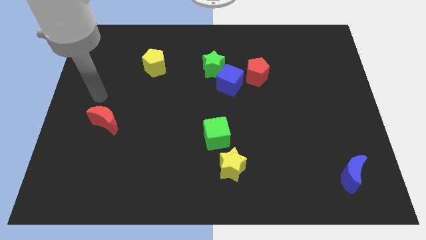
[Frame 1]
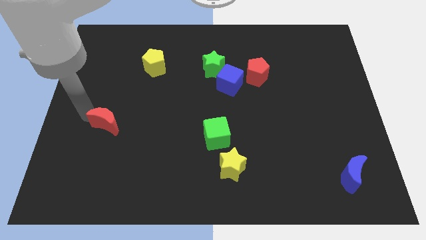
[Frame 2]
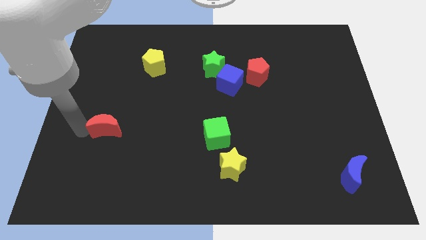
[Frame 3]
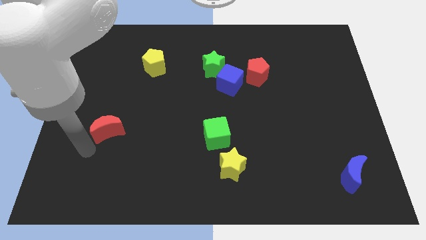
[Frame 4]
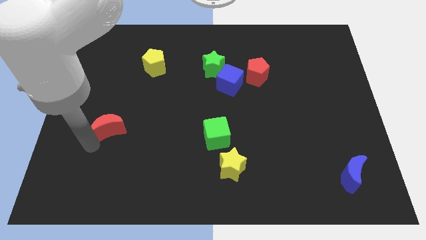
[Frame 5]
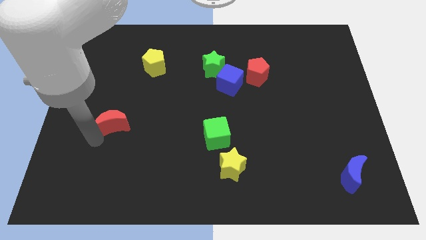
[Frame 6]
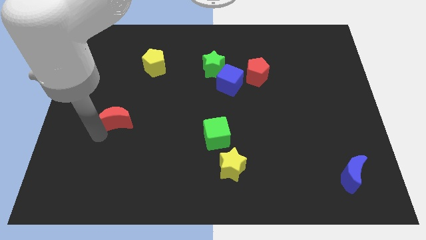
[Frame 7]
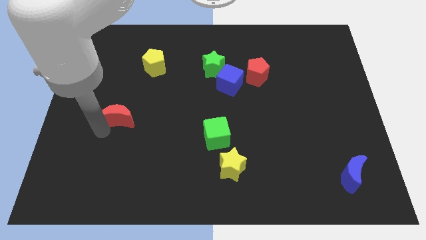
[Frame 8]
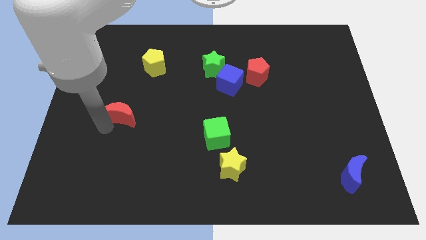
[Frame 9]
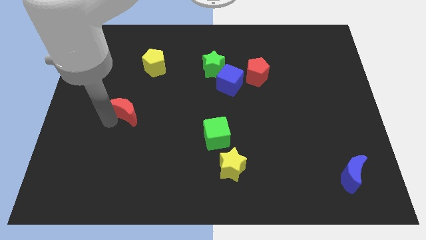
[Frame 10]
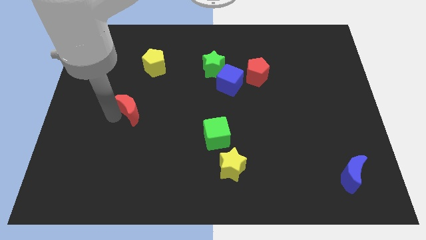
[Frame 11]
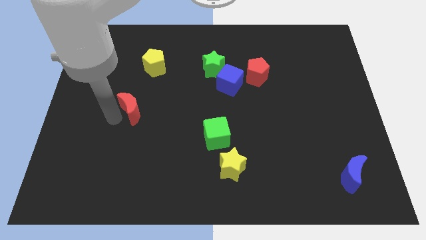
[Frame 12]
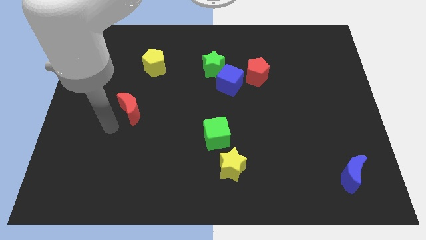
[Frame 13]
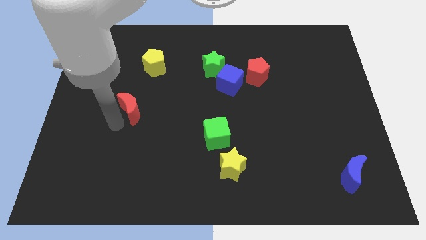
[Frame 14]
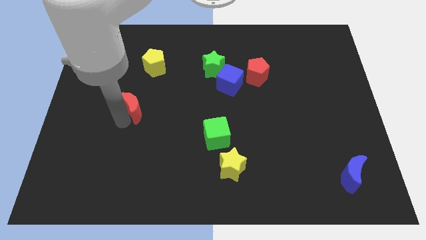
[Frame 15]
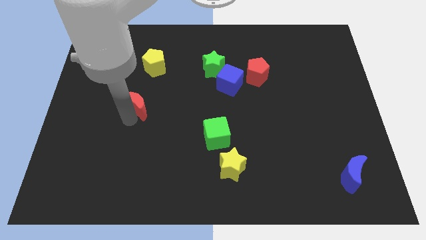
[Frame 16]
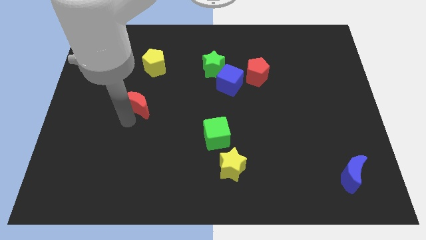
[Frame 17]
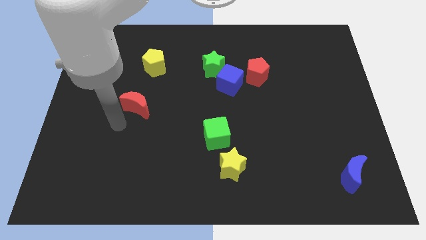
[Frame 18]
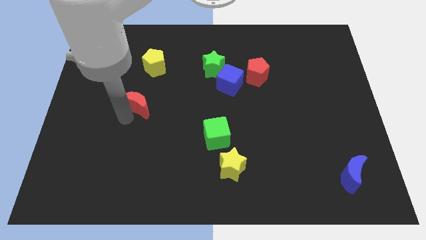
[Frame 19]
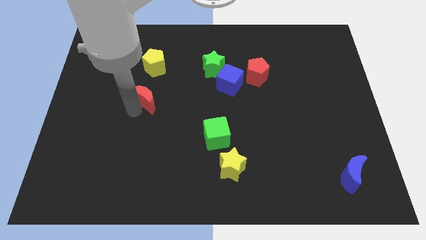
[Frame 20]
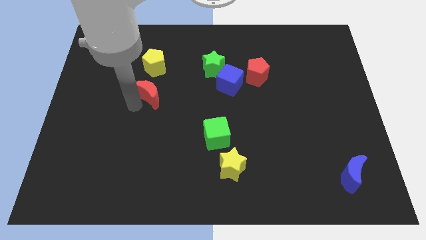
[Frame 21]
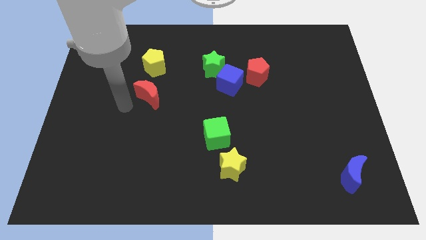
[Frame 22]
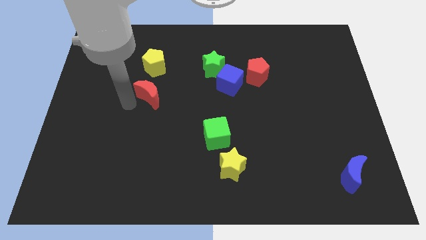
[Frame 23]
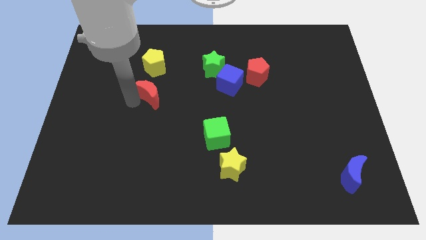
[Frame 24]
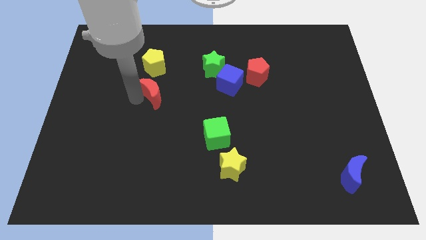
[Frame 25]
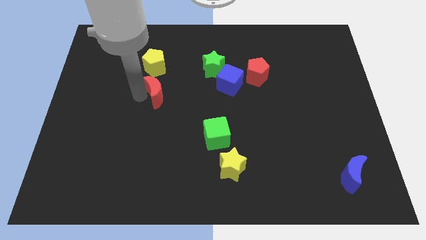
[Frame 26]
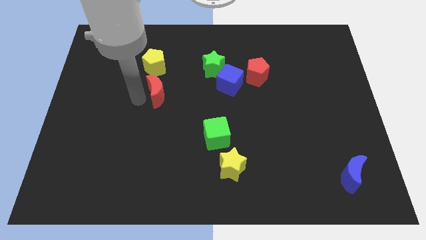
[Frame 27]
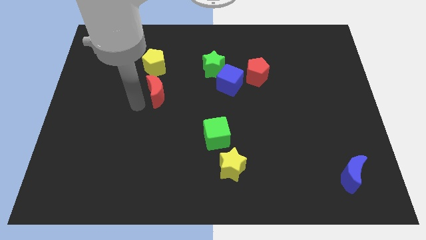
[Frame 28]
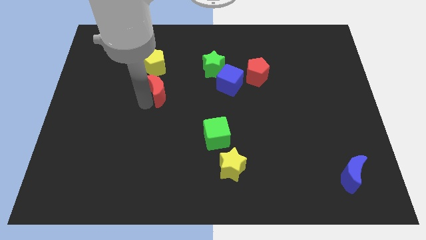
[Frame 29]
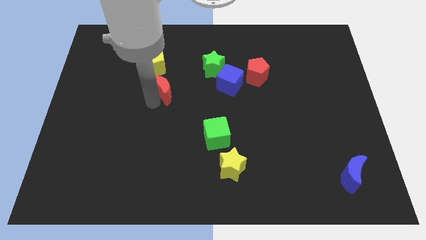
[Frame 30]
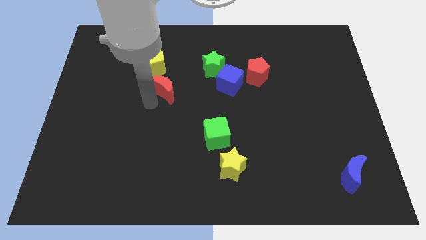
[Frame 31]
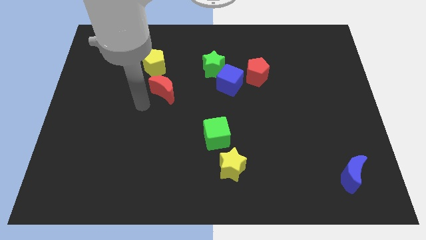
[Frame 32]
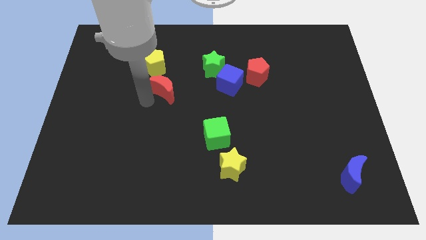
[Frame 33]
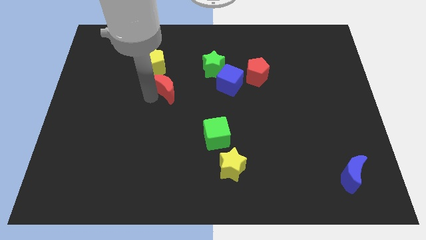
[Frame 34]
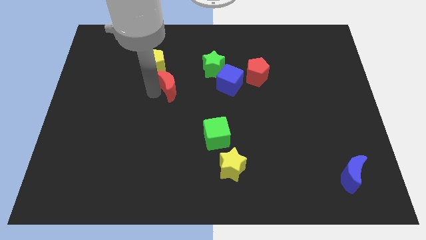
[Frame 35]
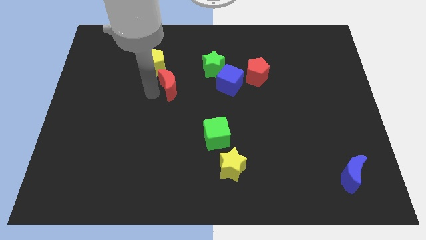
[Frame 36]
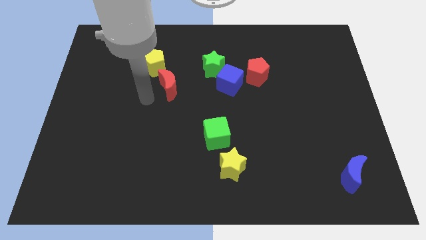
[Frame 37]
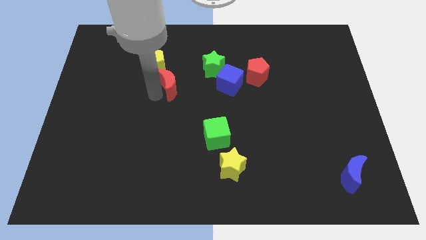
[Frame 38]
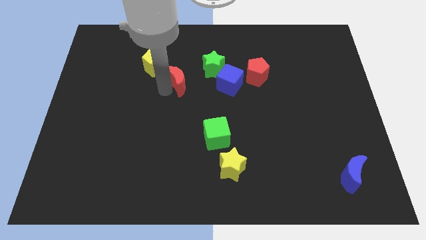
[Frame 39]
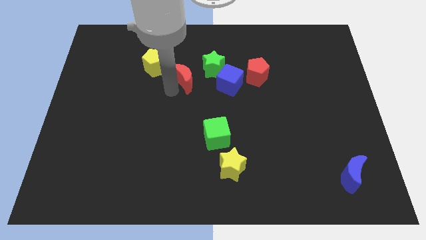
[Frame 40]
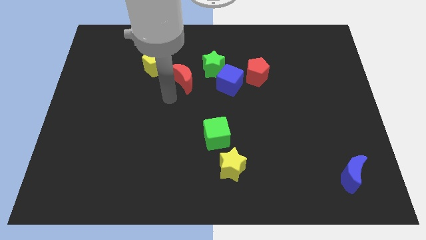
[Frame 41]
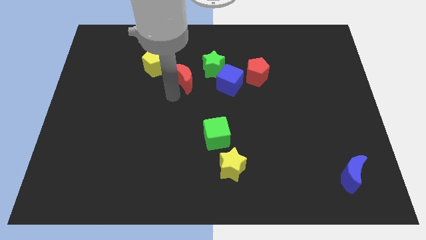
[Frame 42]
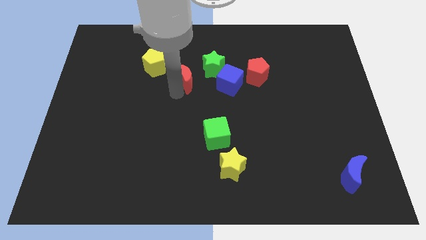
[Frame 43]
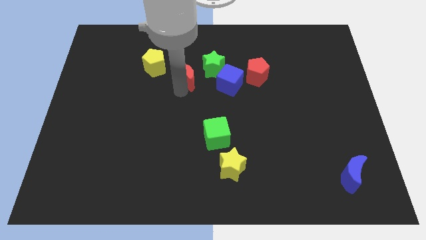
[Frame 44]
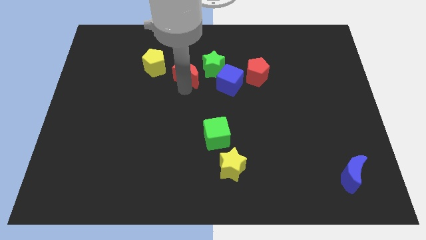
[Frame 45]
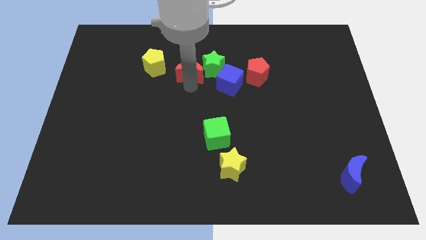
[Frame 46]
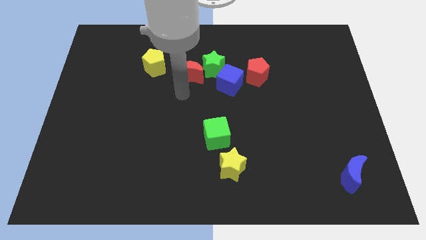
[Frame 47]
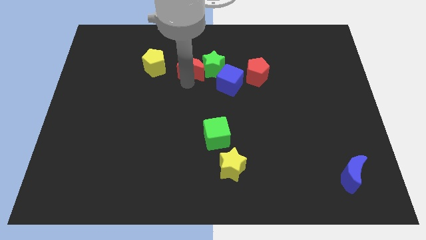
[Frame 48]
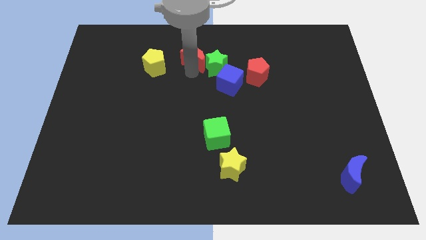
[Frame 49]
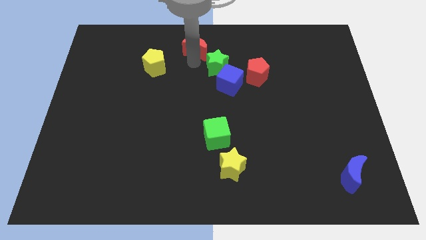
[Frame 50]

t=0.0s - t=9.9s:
push the red moon to the top side

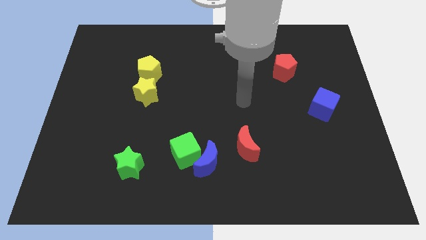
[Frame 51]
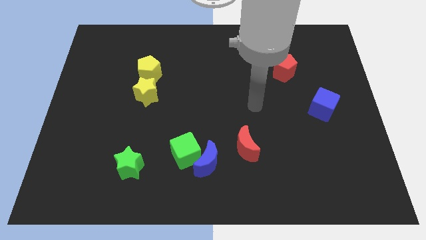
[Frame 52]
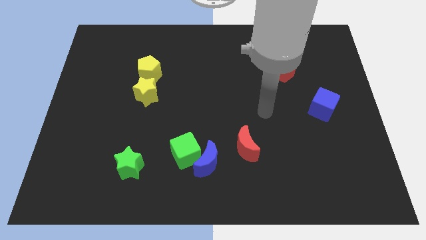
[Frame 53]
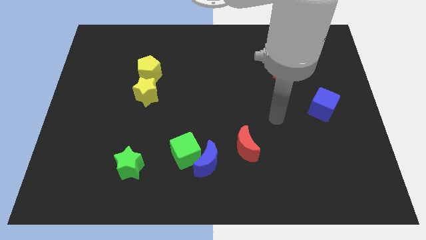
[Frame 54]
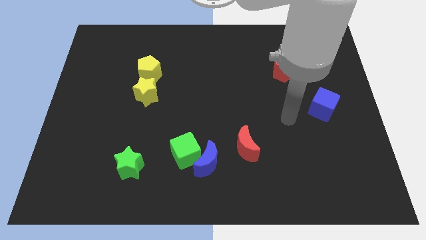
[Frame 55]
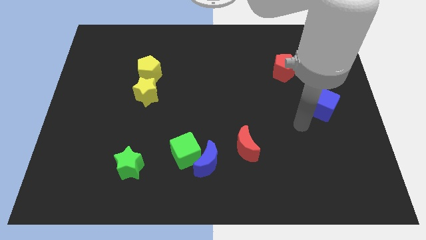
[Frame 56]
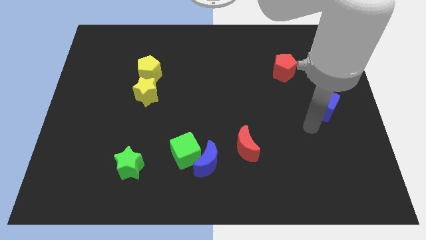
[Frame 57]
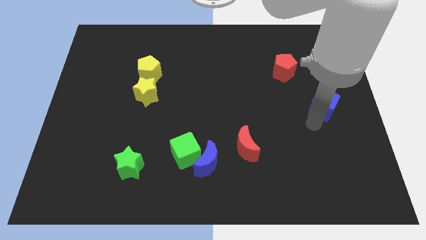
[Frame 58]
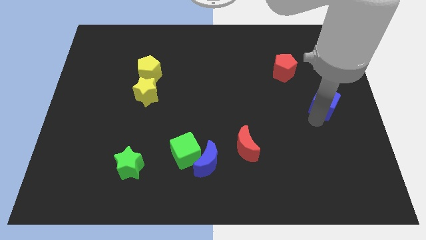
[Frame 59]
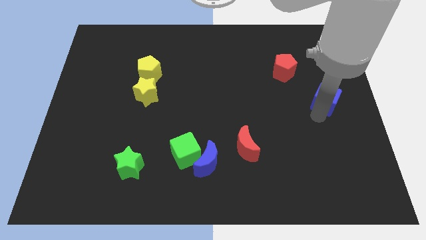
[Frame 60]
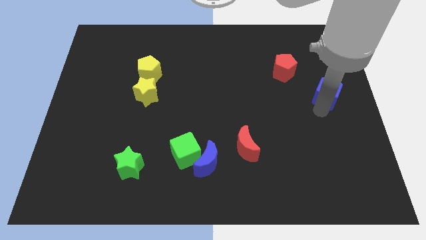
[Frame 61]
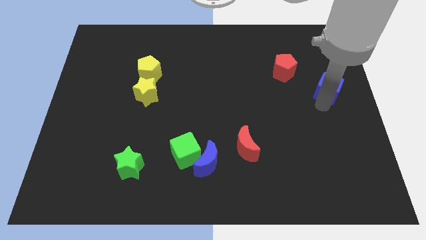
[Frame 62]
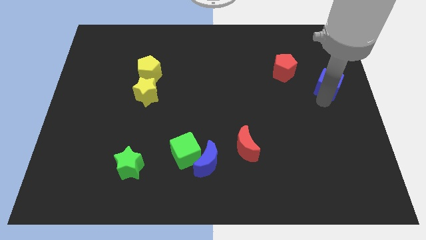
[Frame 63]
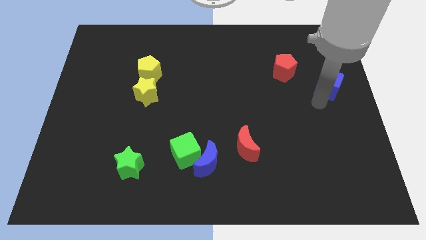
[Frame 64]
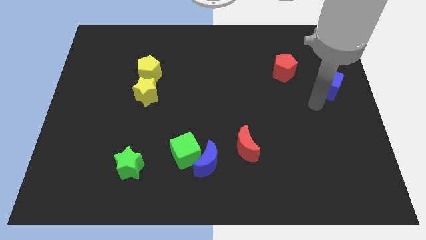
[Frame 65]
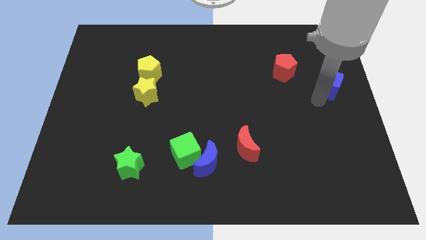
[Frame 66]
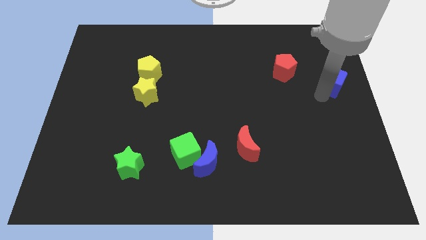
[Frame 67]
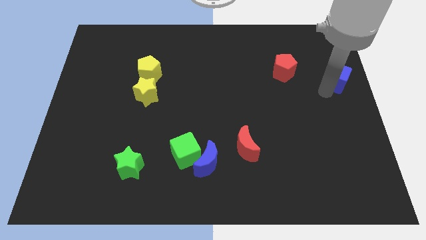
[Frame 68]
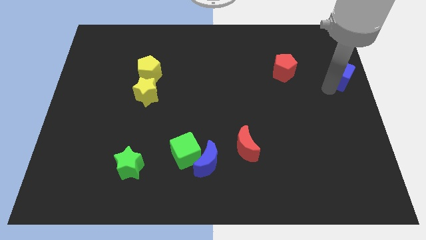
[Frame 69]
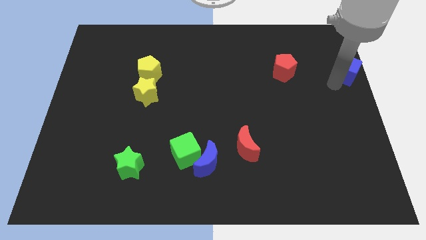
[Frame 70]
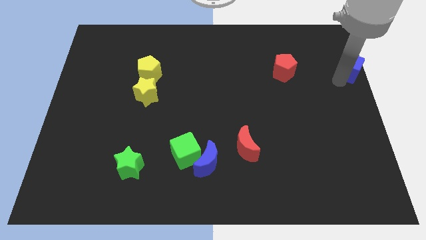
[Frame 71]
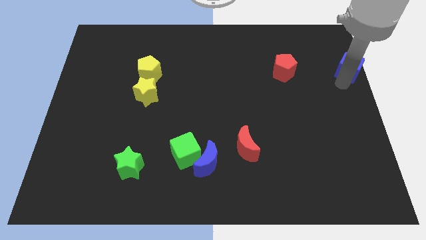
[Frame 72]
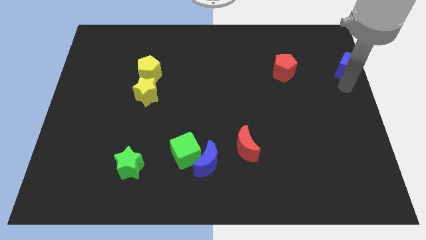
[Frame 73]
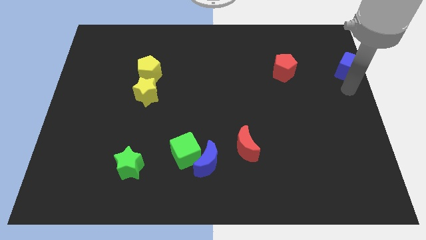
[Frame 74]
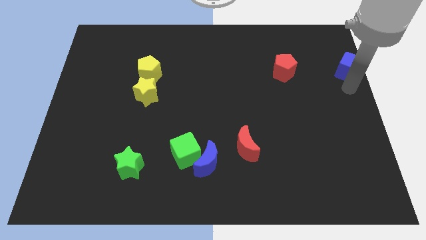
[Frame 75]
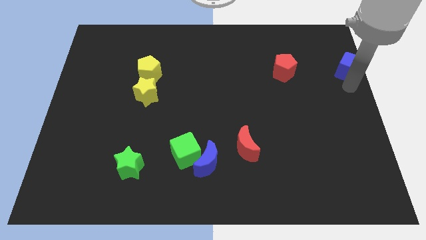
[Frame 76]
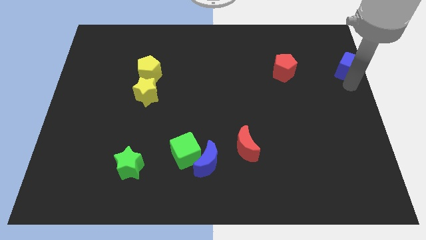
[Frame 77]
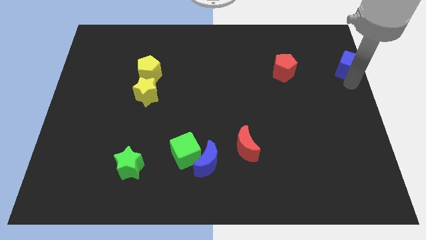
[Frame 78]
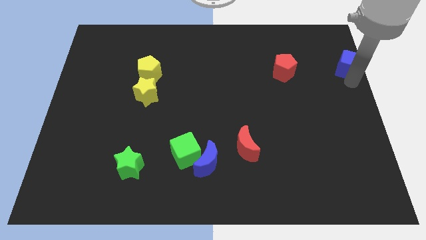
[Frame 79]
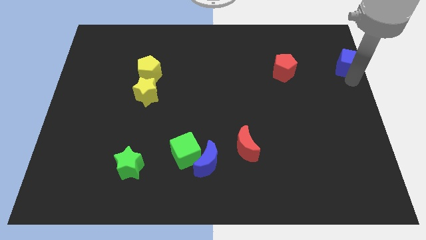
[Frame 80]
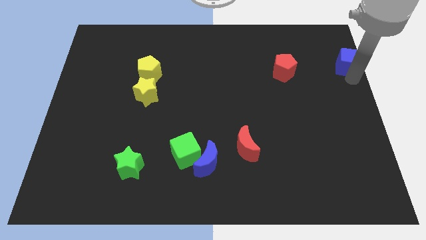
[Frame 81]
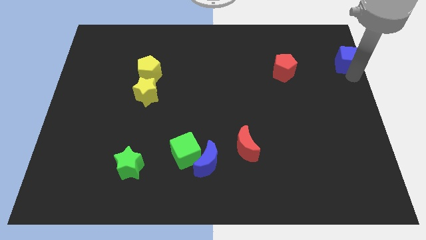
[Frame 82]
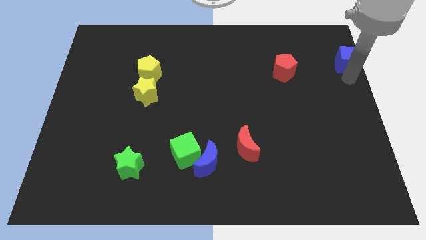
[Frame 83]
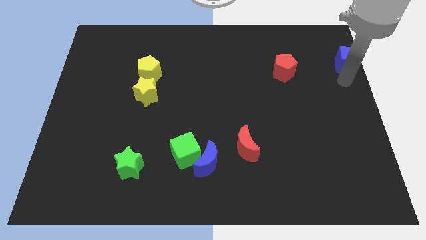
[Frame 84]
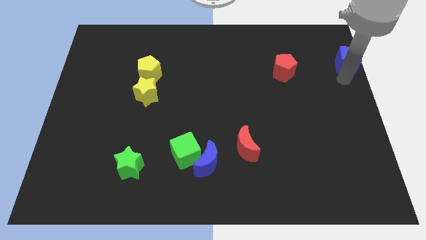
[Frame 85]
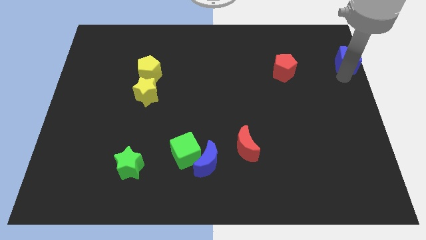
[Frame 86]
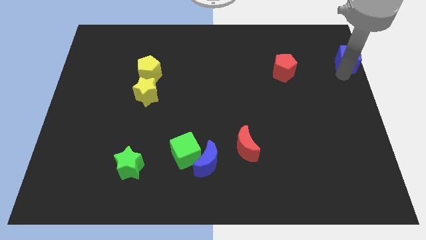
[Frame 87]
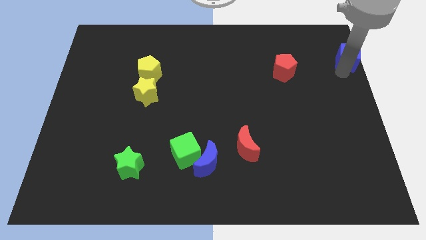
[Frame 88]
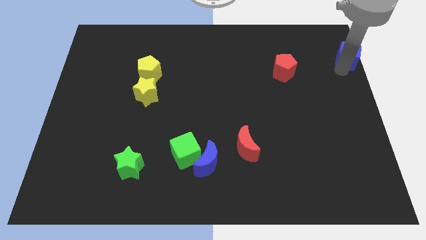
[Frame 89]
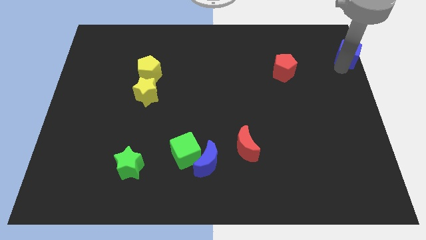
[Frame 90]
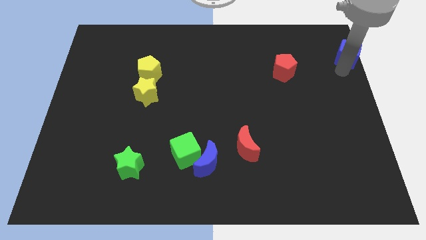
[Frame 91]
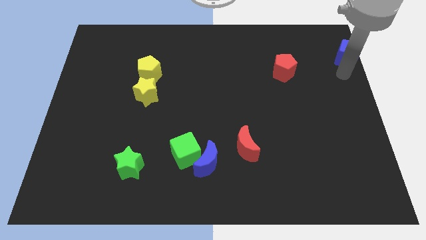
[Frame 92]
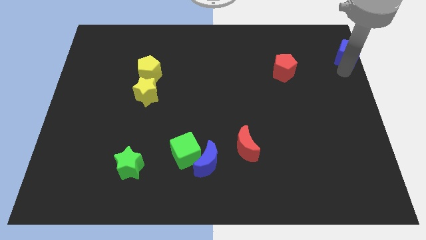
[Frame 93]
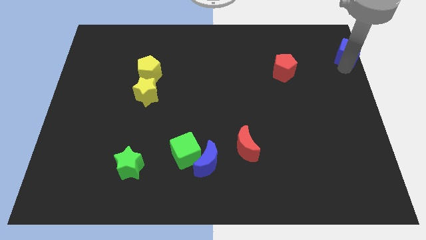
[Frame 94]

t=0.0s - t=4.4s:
slide the blue cube to the top right corner
